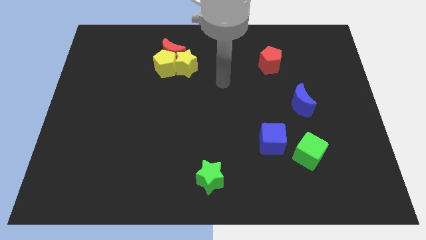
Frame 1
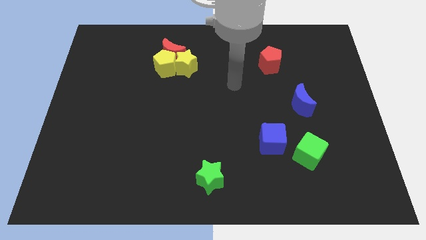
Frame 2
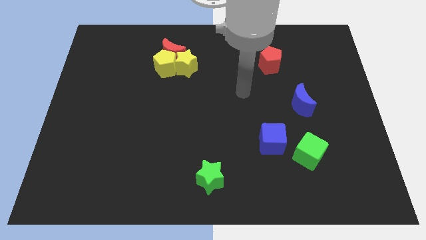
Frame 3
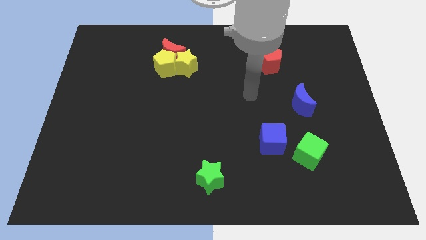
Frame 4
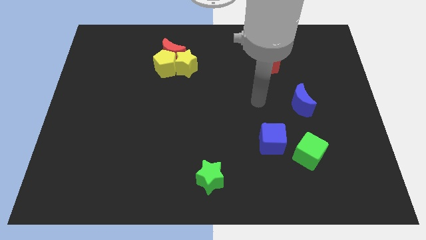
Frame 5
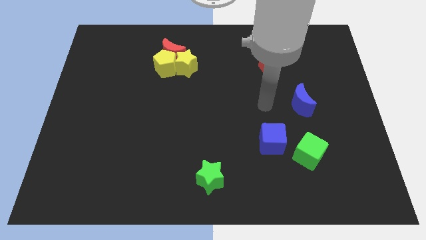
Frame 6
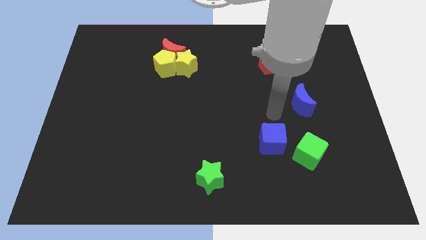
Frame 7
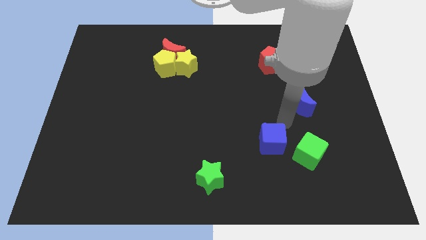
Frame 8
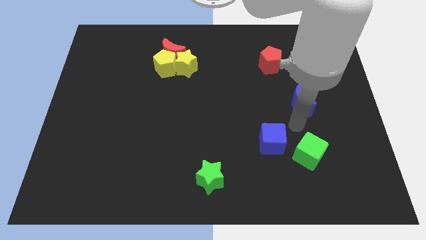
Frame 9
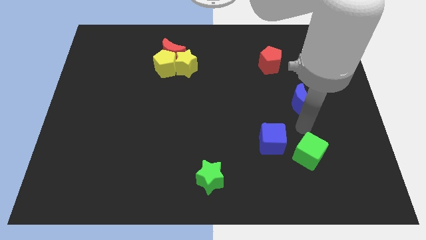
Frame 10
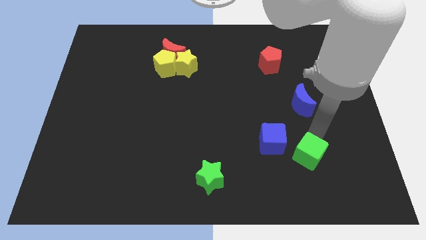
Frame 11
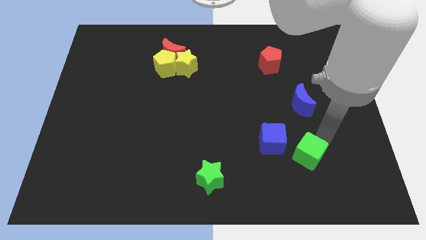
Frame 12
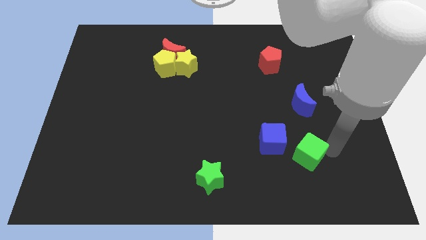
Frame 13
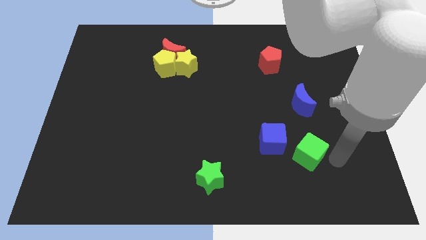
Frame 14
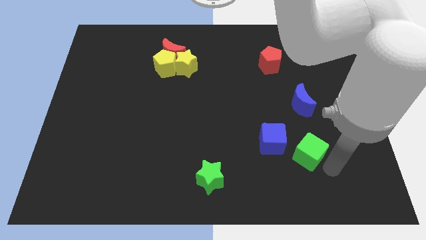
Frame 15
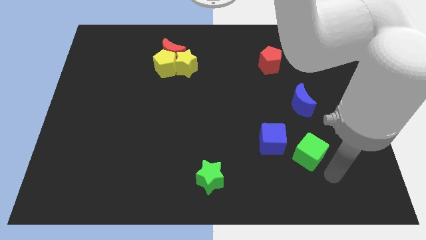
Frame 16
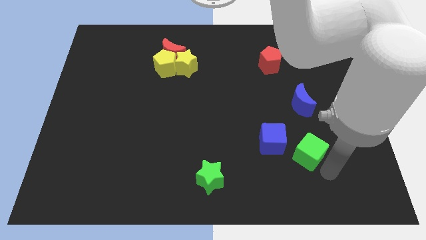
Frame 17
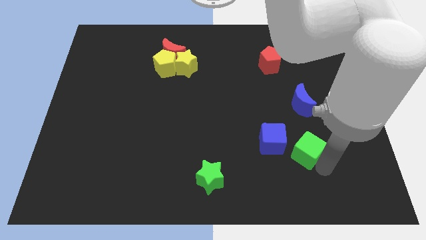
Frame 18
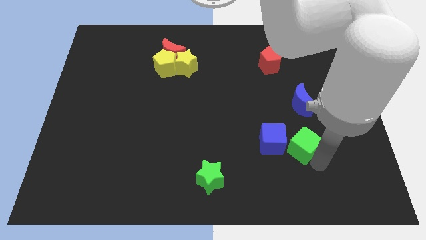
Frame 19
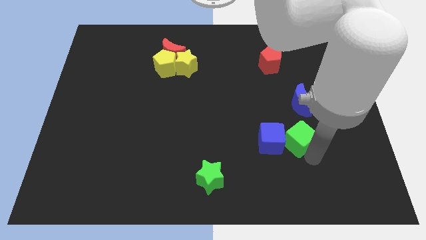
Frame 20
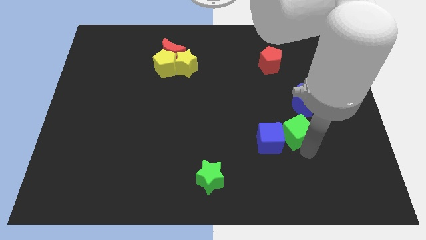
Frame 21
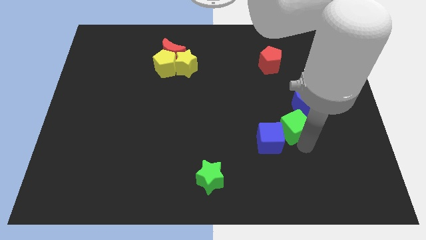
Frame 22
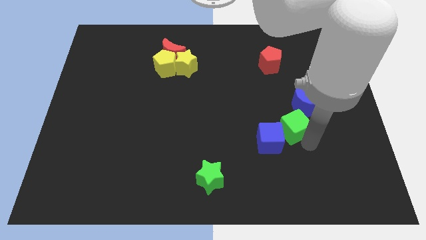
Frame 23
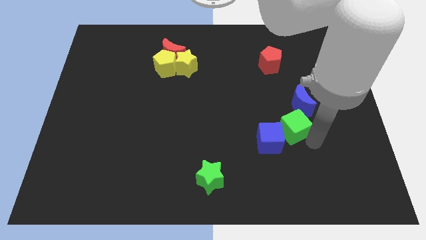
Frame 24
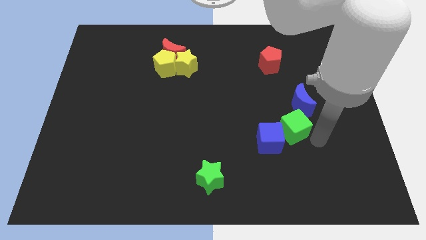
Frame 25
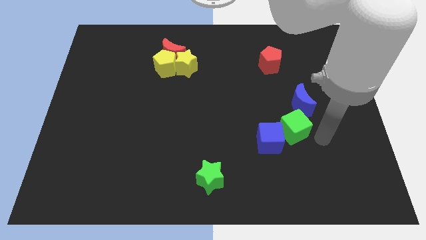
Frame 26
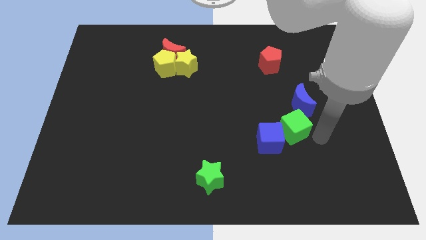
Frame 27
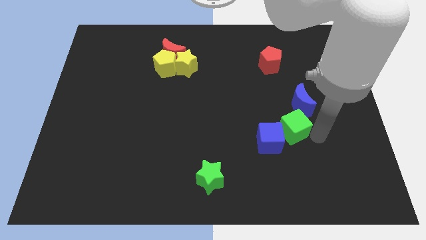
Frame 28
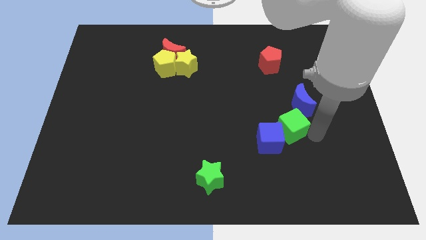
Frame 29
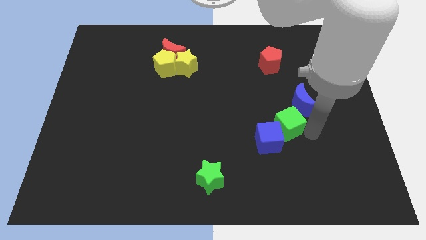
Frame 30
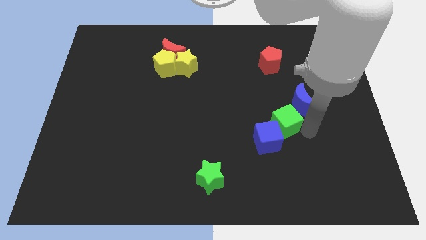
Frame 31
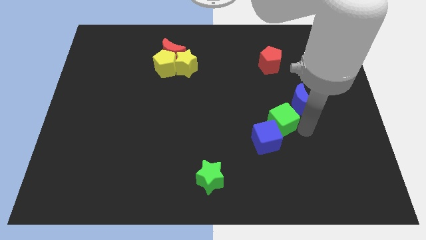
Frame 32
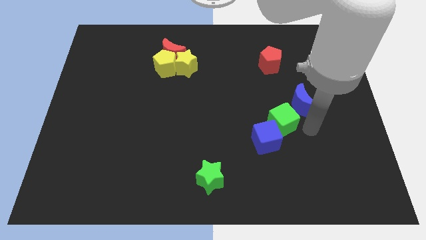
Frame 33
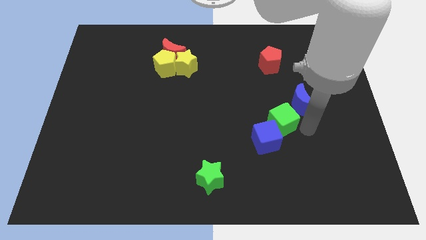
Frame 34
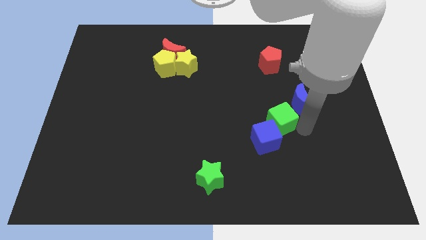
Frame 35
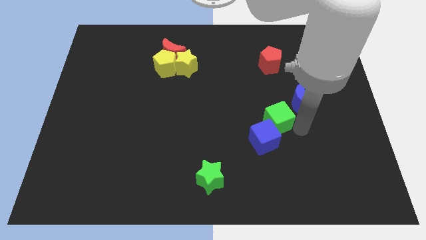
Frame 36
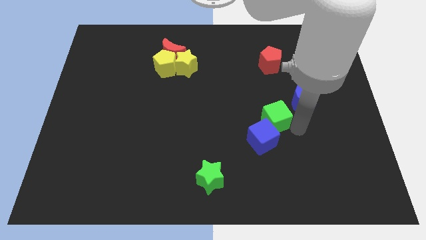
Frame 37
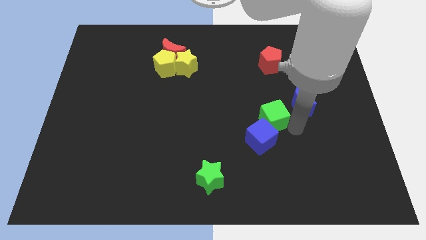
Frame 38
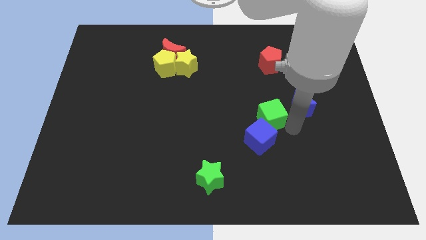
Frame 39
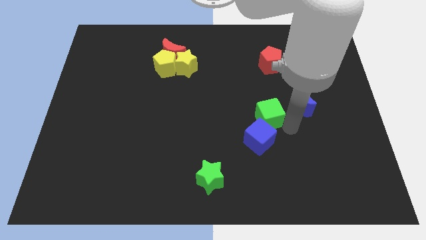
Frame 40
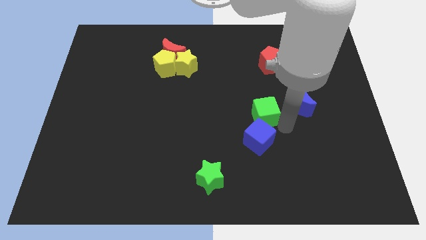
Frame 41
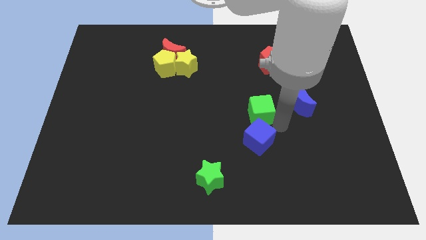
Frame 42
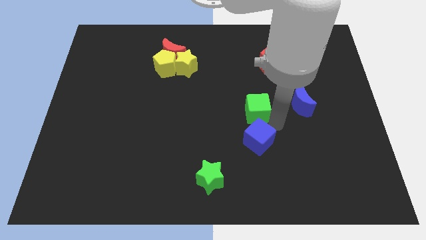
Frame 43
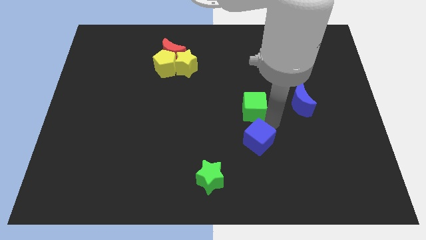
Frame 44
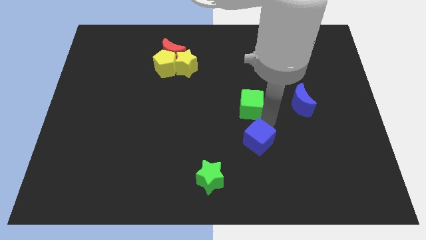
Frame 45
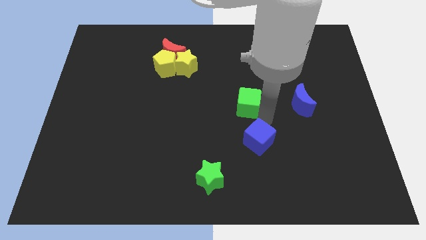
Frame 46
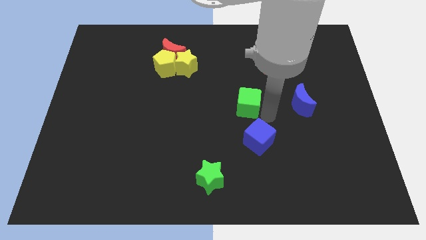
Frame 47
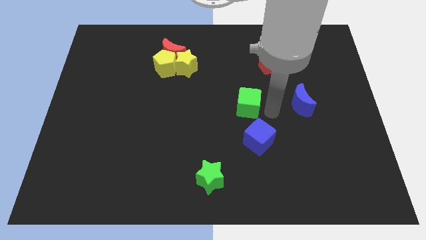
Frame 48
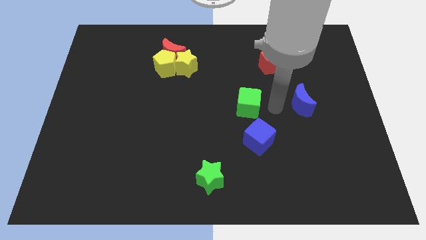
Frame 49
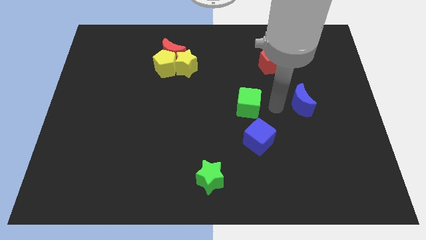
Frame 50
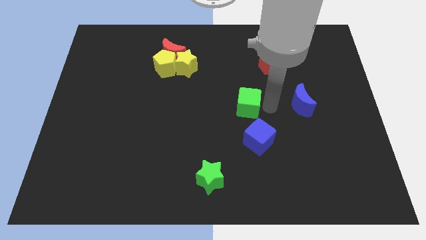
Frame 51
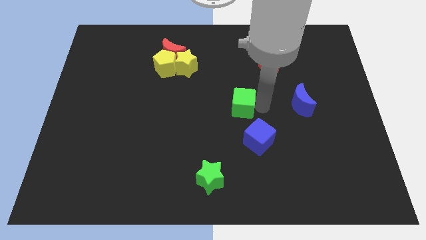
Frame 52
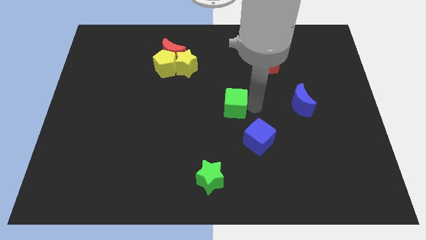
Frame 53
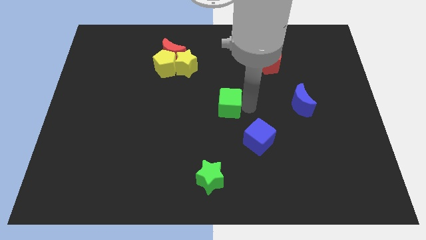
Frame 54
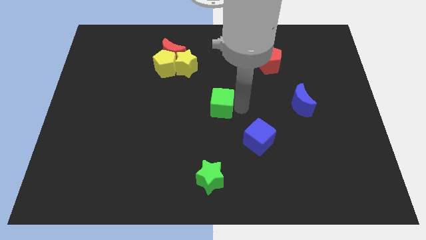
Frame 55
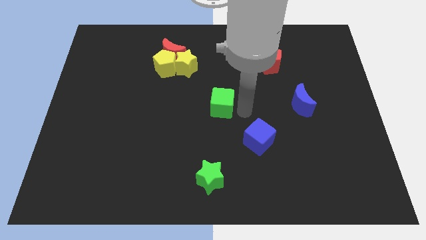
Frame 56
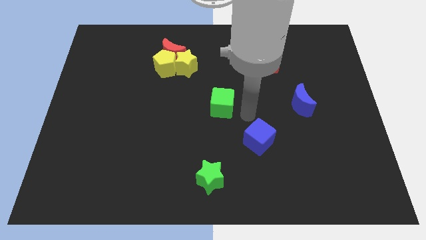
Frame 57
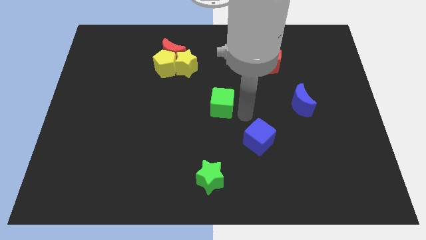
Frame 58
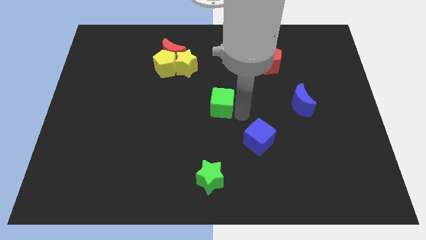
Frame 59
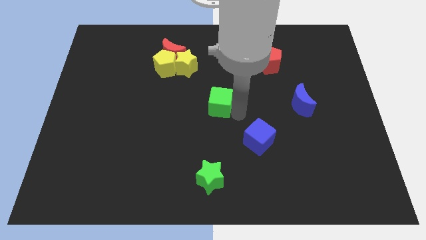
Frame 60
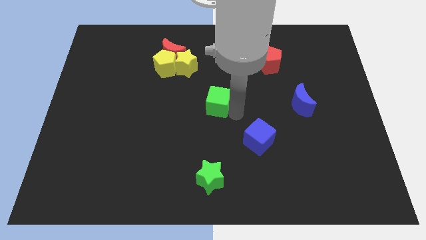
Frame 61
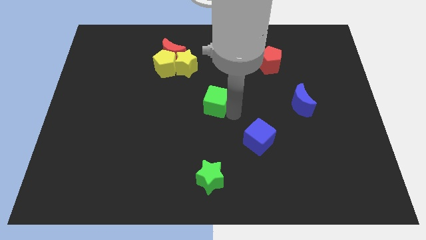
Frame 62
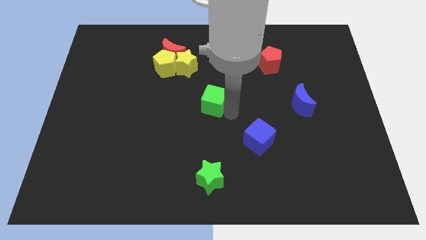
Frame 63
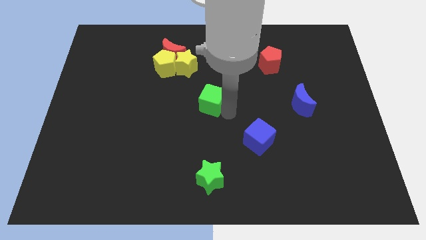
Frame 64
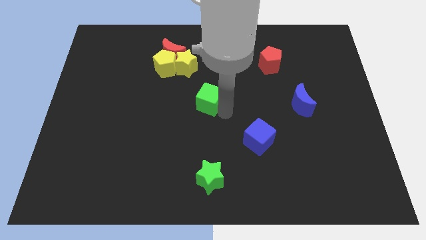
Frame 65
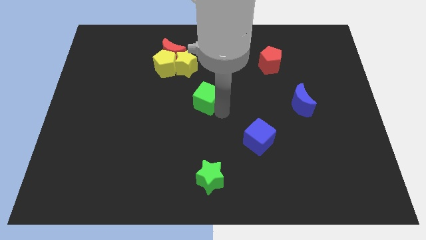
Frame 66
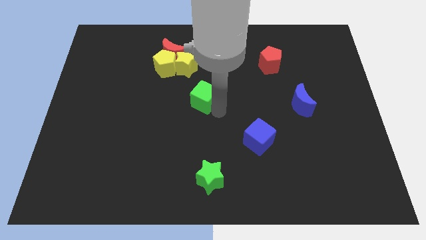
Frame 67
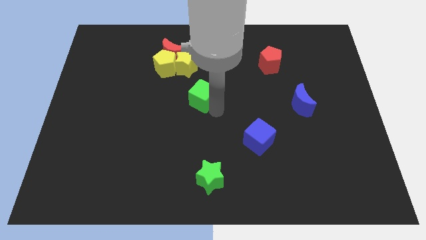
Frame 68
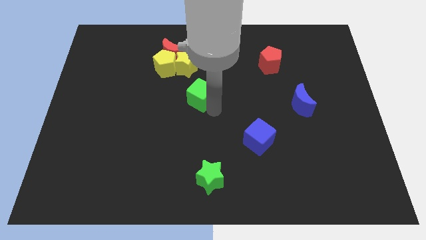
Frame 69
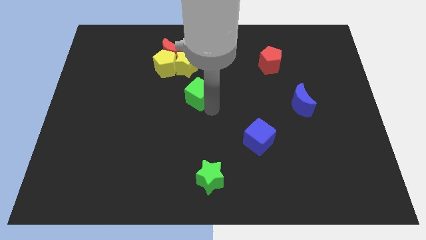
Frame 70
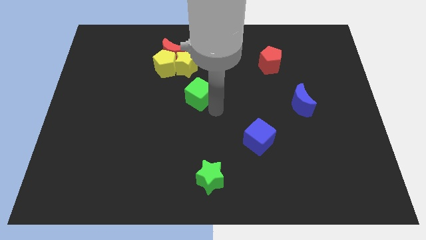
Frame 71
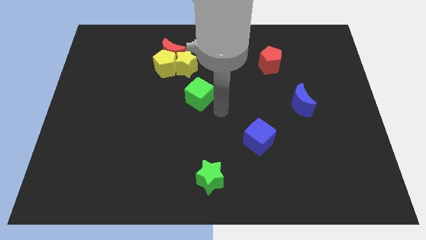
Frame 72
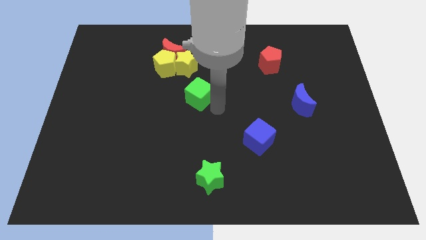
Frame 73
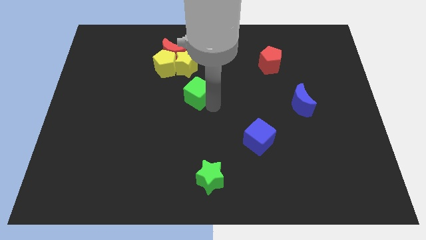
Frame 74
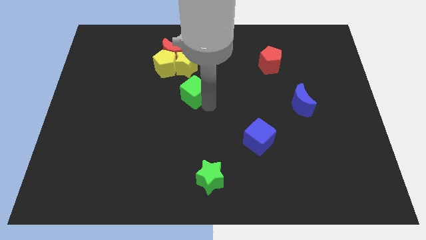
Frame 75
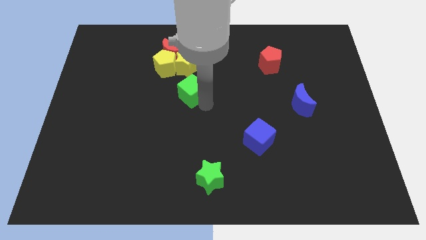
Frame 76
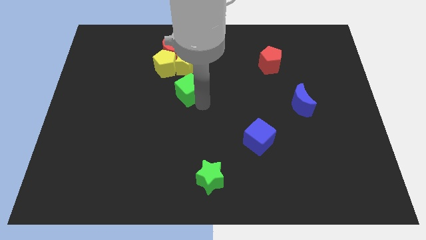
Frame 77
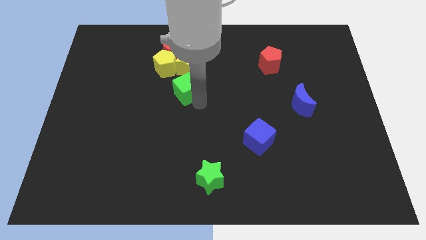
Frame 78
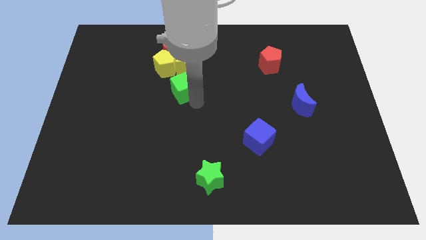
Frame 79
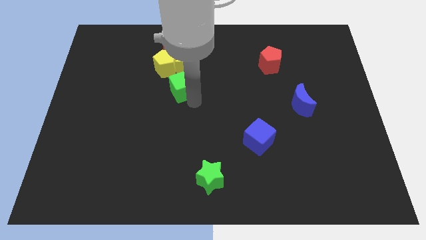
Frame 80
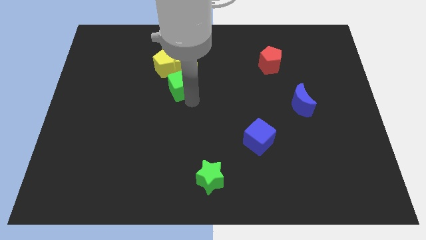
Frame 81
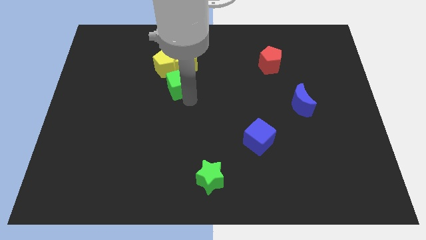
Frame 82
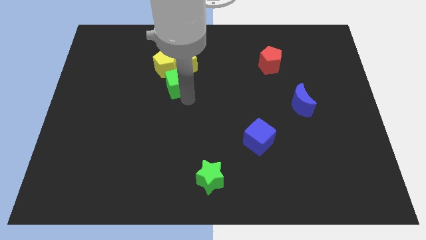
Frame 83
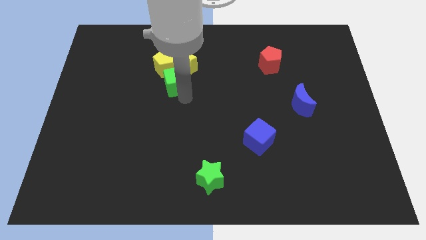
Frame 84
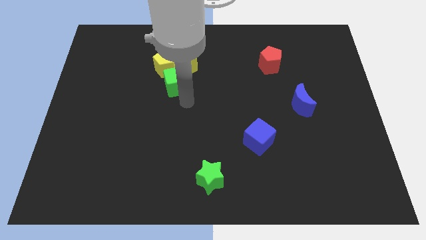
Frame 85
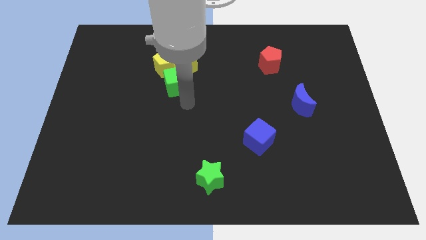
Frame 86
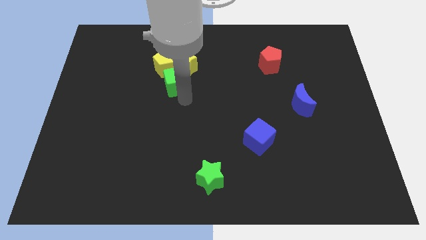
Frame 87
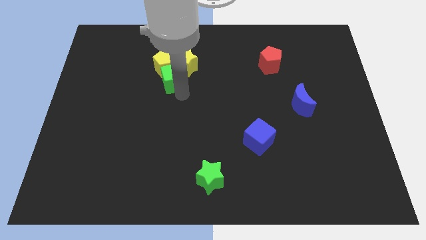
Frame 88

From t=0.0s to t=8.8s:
put the green cube close to the yellow pentagon
